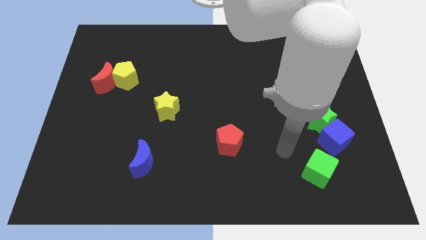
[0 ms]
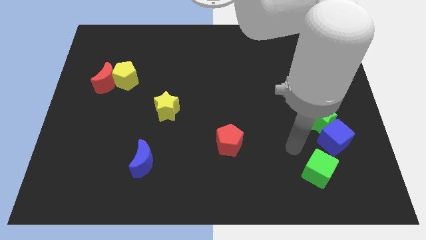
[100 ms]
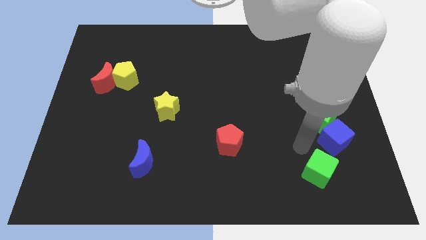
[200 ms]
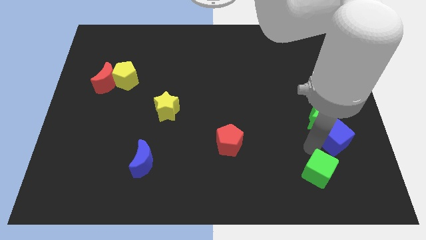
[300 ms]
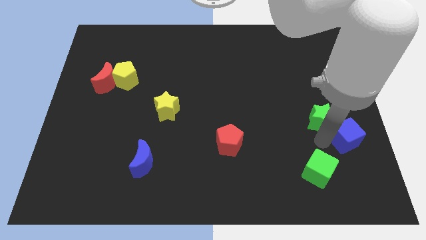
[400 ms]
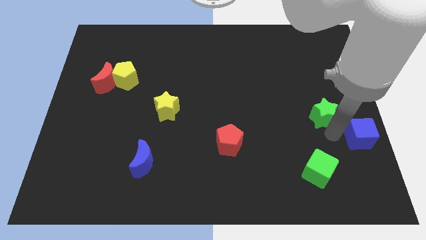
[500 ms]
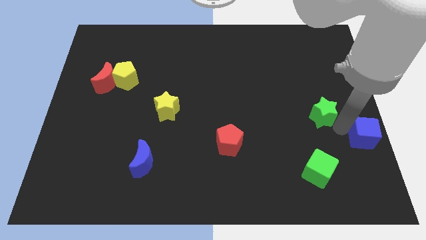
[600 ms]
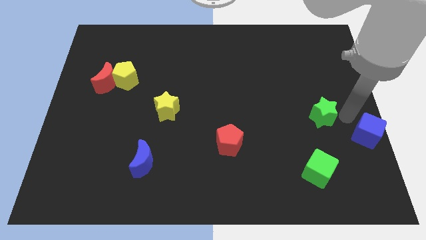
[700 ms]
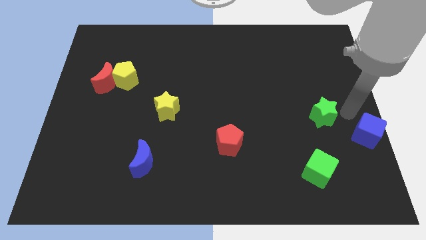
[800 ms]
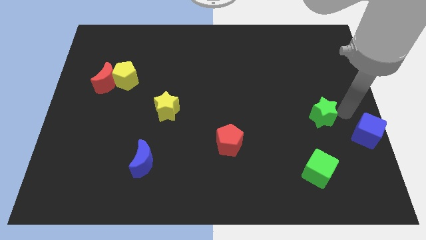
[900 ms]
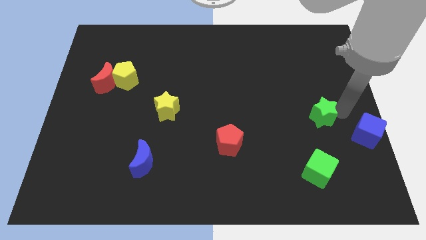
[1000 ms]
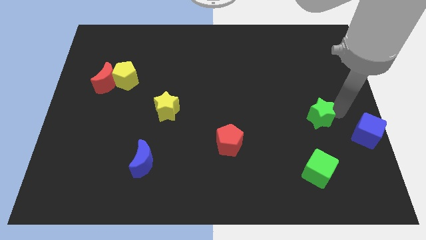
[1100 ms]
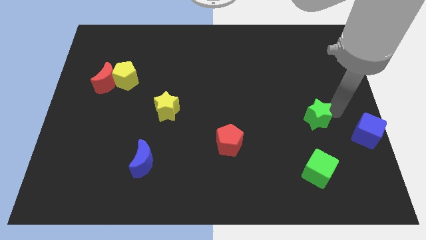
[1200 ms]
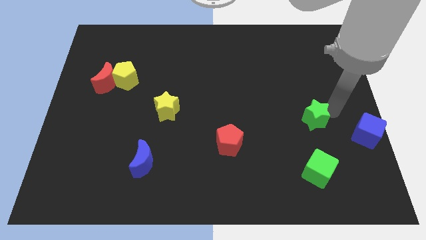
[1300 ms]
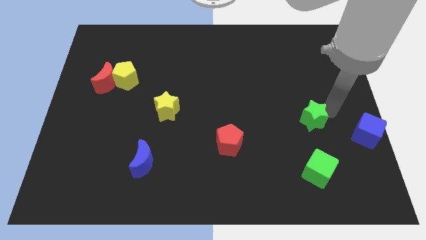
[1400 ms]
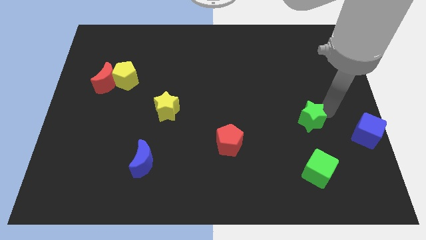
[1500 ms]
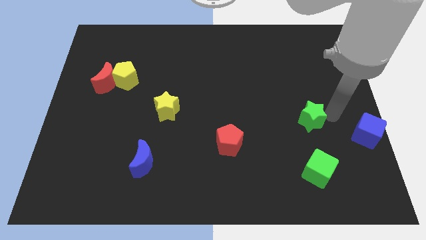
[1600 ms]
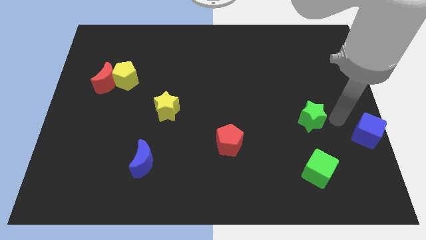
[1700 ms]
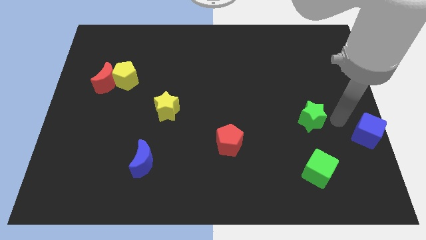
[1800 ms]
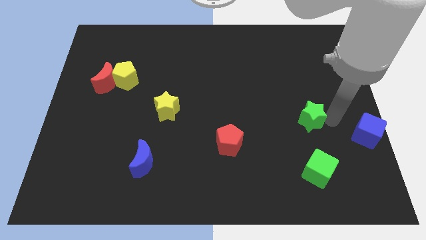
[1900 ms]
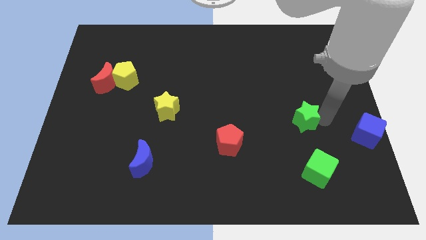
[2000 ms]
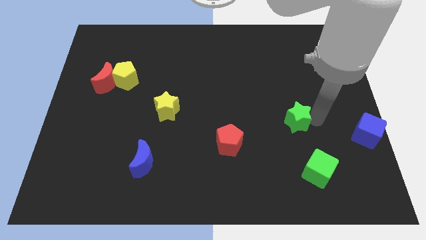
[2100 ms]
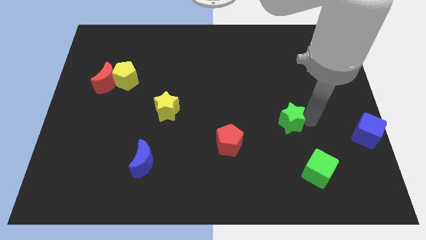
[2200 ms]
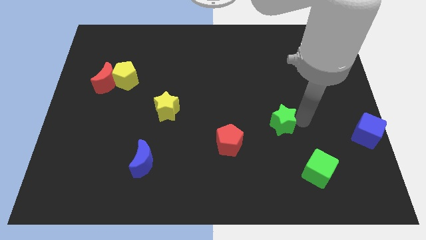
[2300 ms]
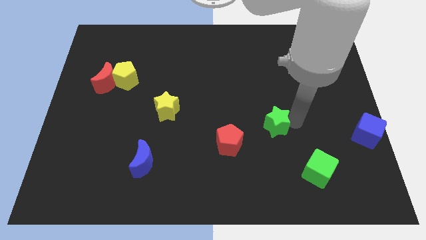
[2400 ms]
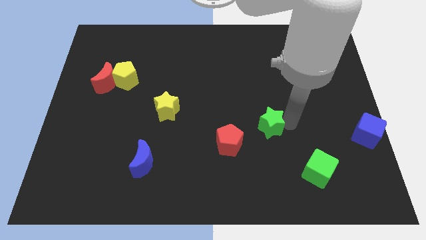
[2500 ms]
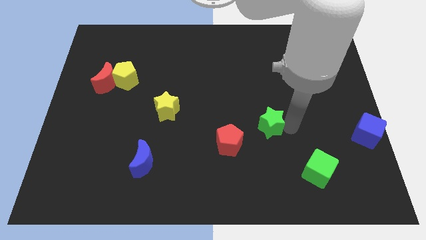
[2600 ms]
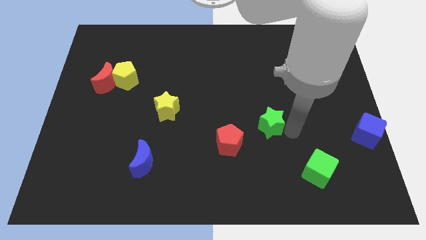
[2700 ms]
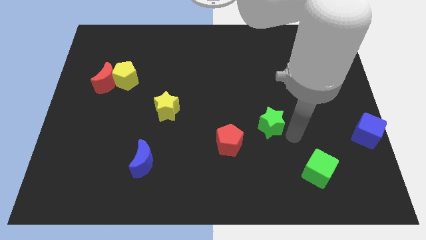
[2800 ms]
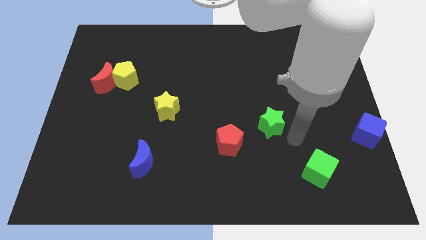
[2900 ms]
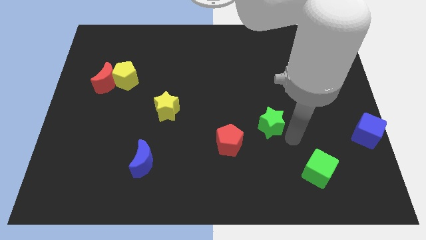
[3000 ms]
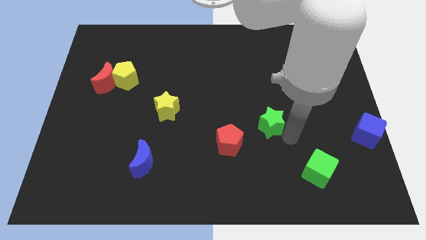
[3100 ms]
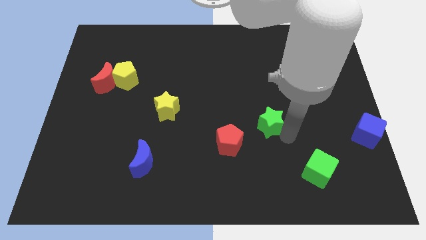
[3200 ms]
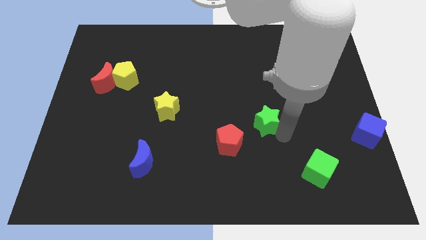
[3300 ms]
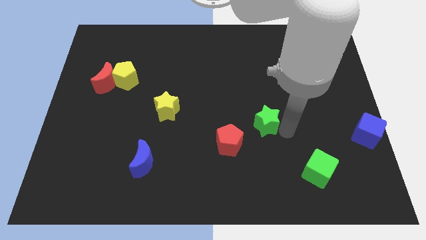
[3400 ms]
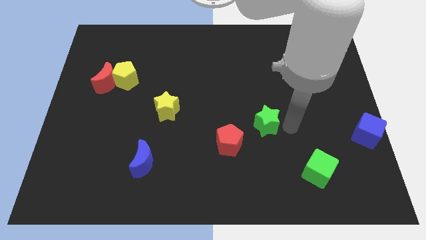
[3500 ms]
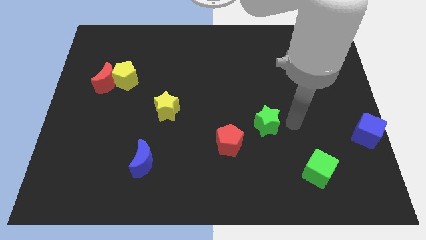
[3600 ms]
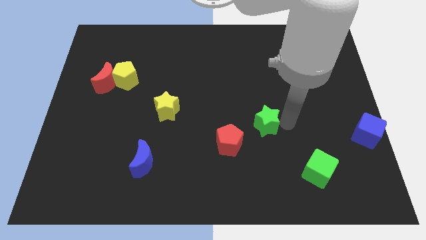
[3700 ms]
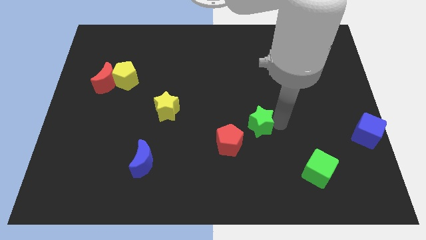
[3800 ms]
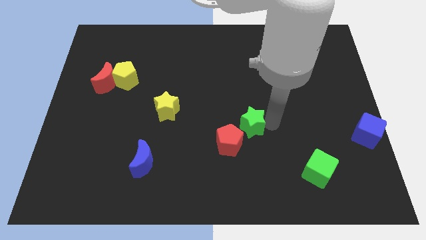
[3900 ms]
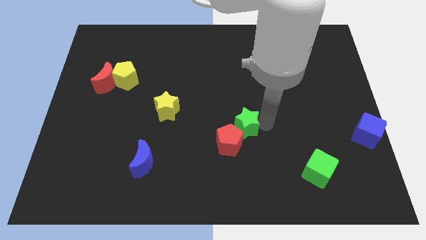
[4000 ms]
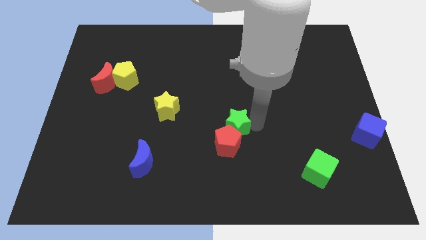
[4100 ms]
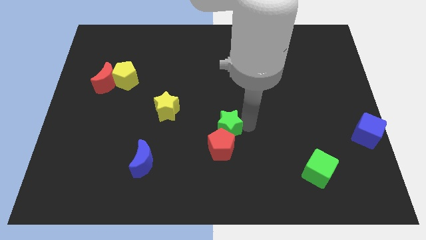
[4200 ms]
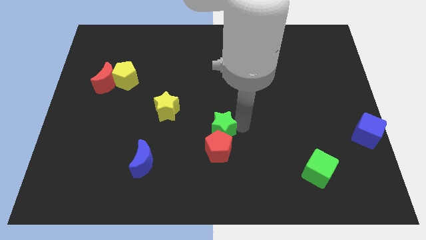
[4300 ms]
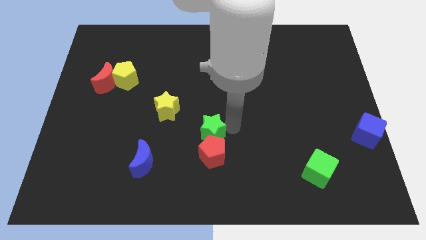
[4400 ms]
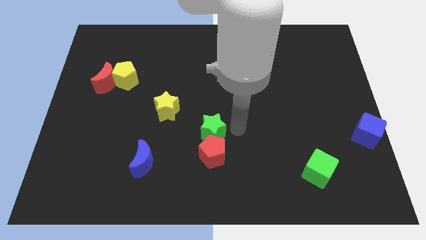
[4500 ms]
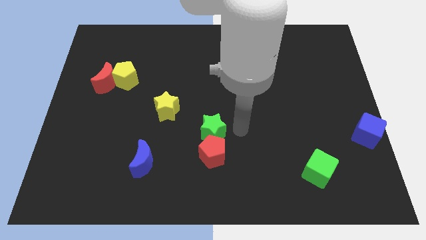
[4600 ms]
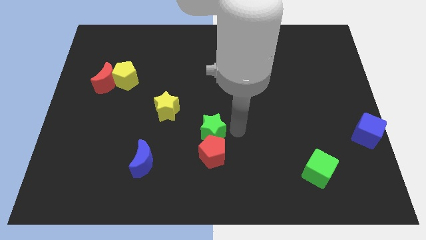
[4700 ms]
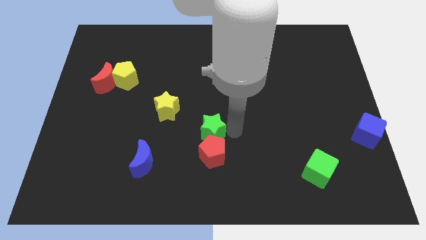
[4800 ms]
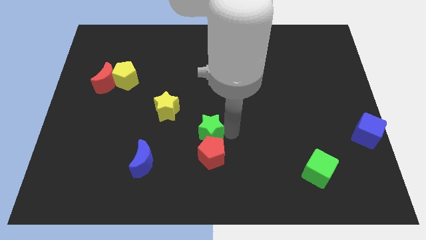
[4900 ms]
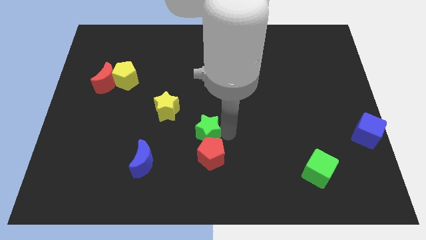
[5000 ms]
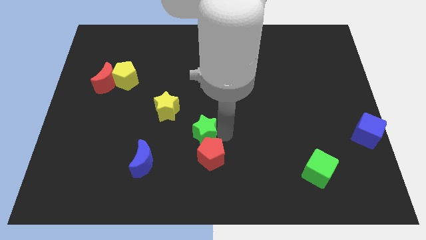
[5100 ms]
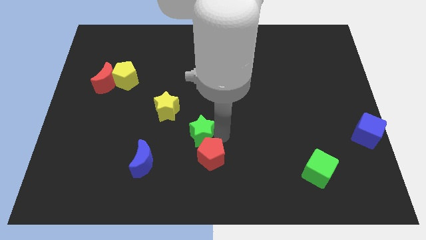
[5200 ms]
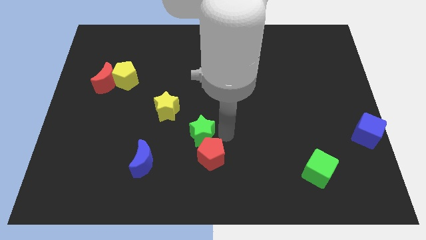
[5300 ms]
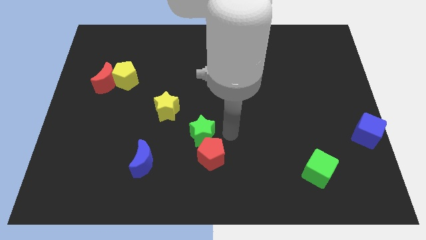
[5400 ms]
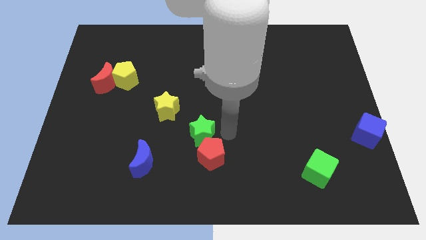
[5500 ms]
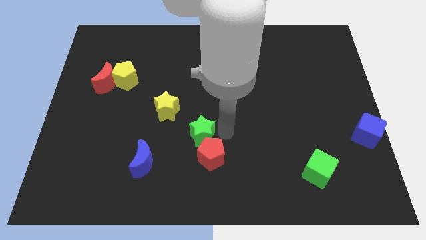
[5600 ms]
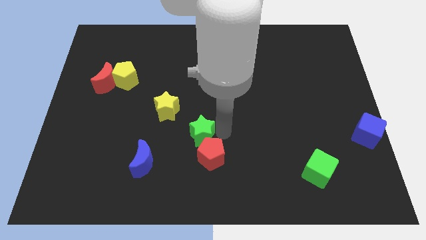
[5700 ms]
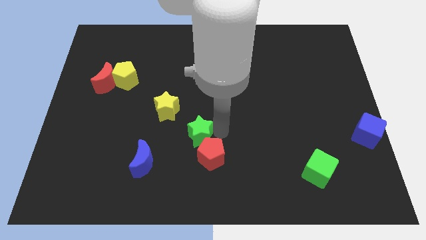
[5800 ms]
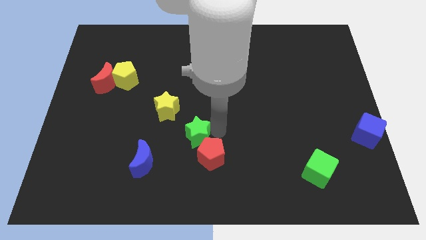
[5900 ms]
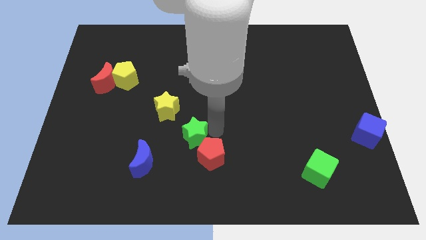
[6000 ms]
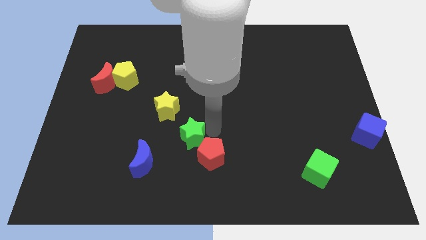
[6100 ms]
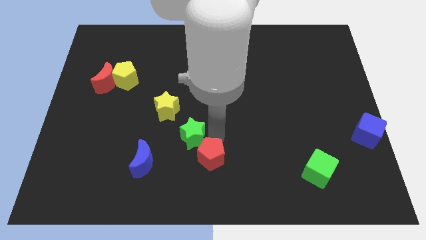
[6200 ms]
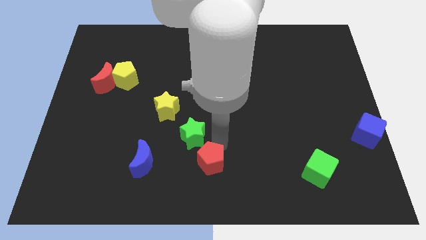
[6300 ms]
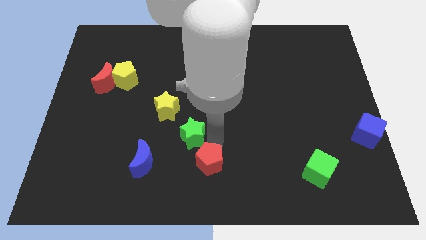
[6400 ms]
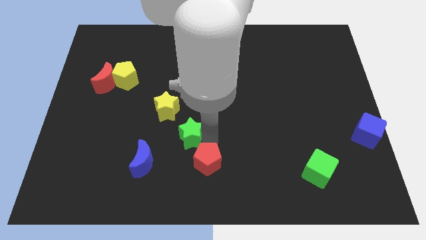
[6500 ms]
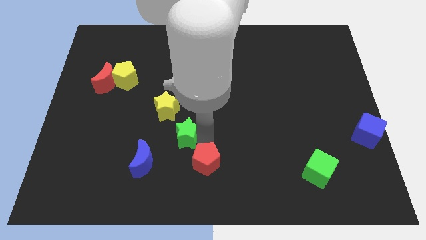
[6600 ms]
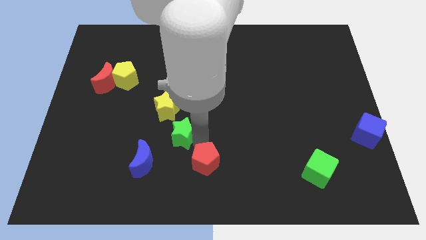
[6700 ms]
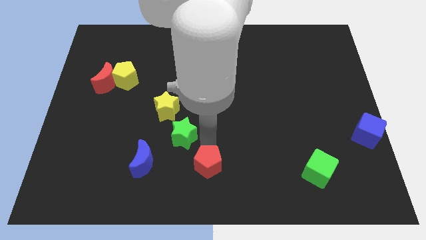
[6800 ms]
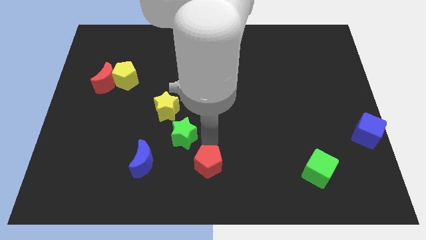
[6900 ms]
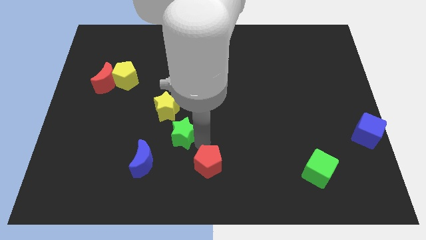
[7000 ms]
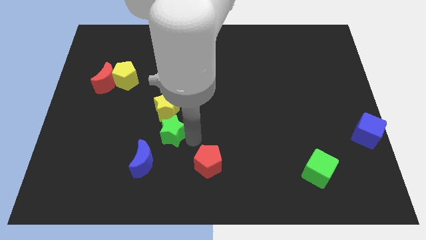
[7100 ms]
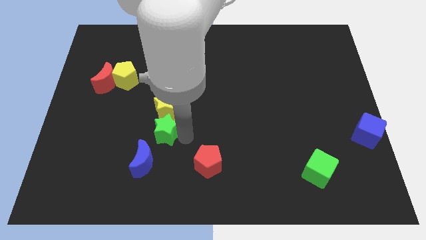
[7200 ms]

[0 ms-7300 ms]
put the green star to the top side of the blue moon

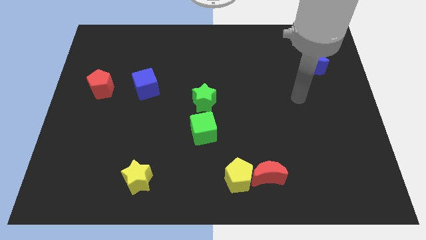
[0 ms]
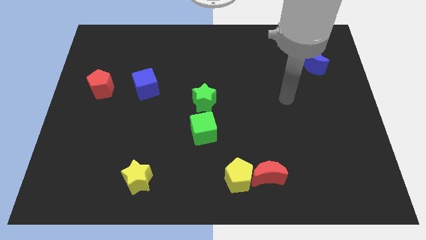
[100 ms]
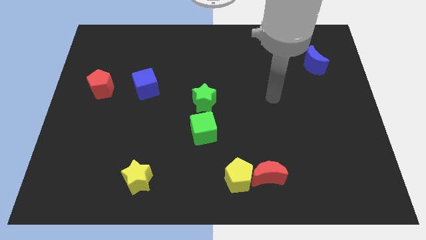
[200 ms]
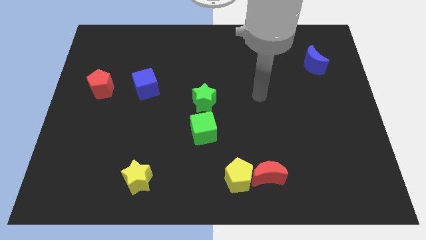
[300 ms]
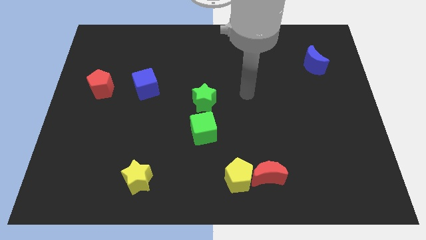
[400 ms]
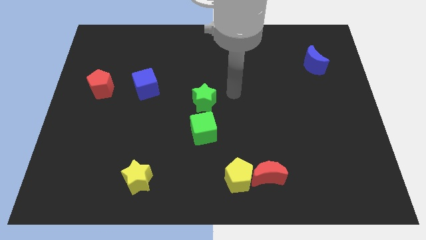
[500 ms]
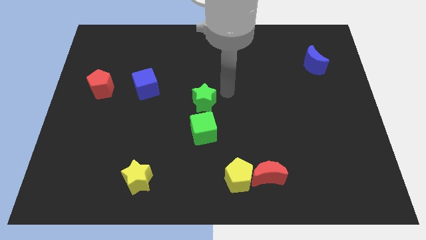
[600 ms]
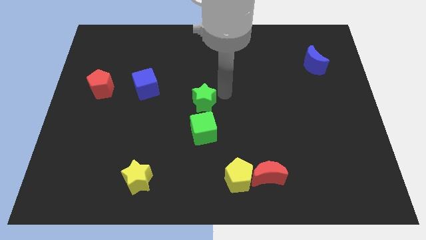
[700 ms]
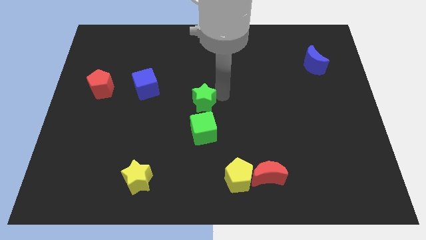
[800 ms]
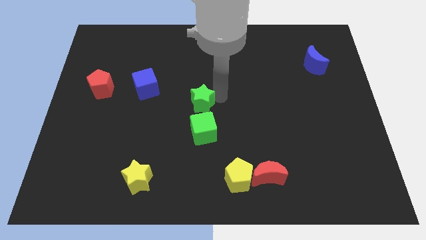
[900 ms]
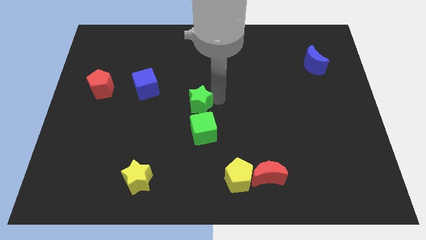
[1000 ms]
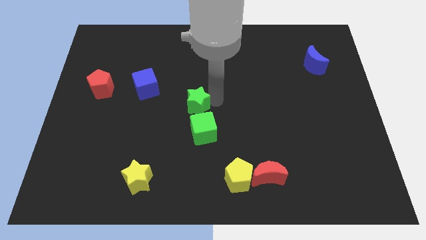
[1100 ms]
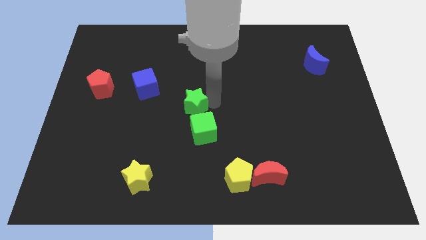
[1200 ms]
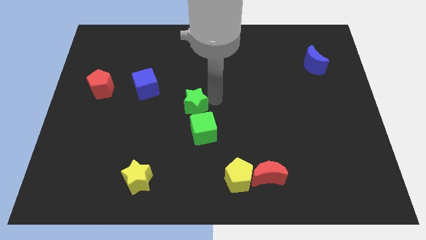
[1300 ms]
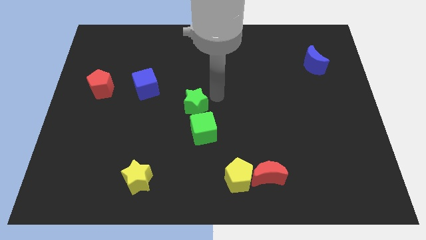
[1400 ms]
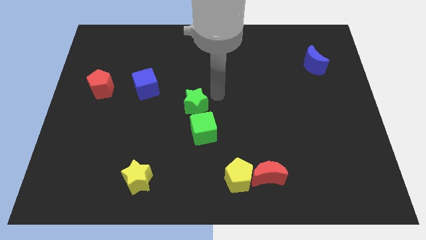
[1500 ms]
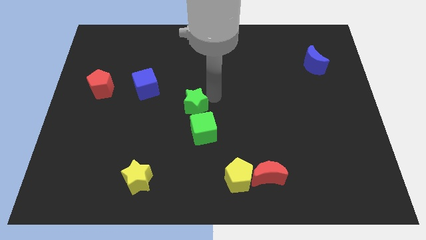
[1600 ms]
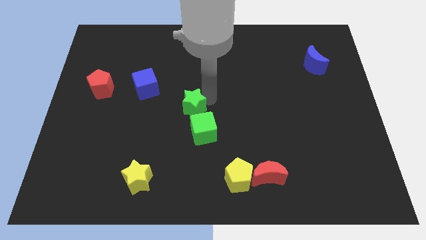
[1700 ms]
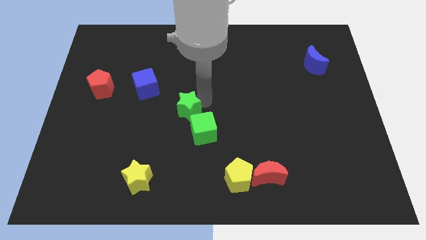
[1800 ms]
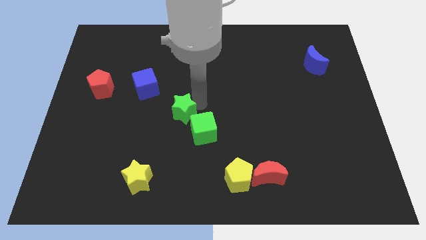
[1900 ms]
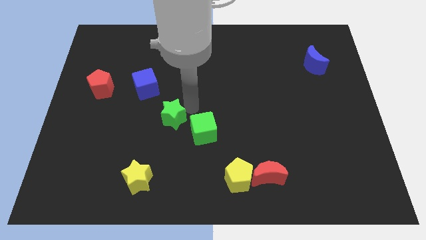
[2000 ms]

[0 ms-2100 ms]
slide the green star just left of the green cube
